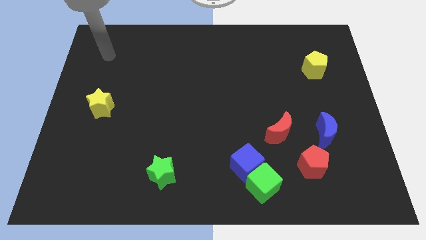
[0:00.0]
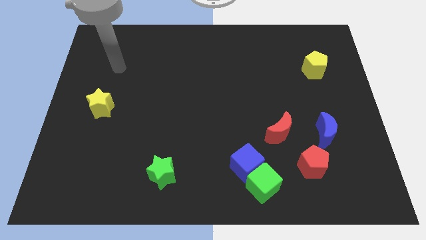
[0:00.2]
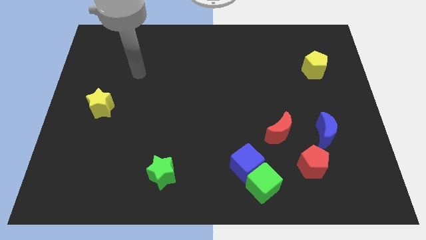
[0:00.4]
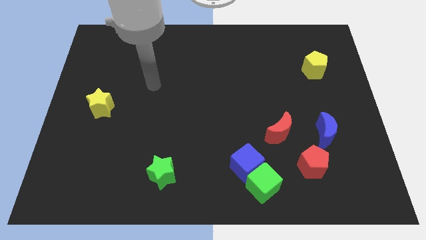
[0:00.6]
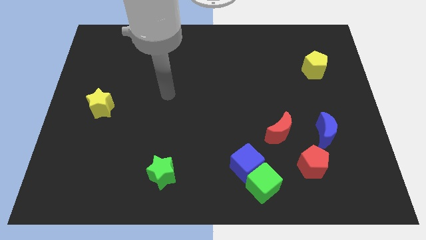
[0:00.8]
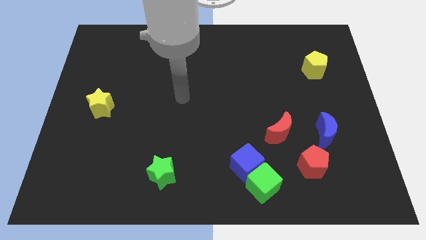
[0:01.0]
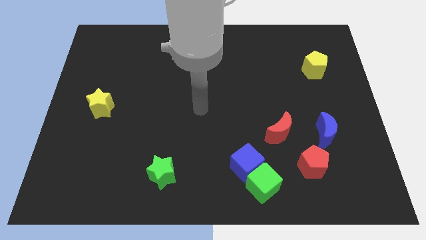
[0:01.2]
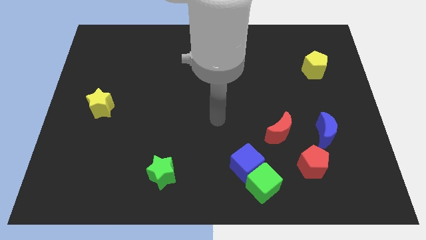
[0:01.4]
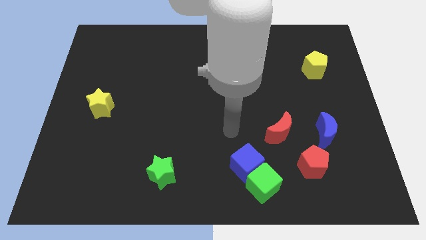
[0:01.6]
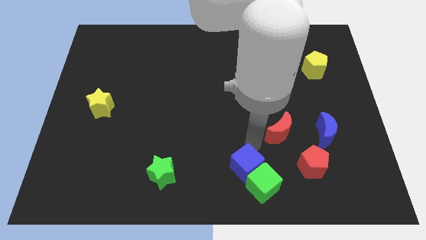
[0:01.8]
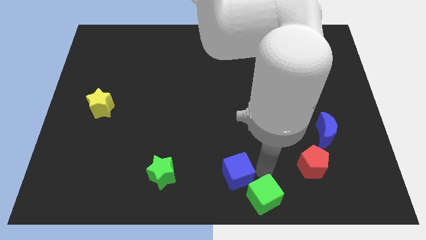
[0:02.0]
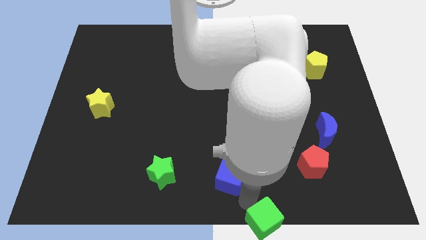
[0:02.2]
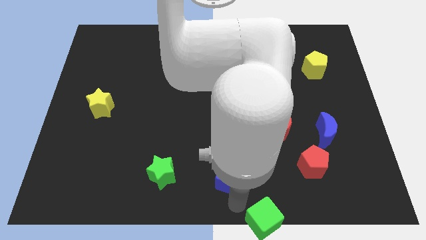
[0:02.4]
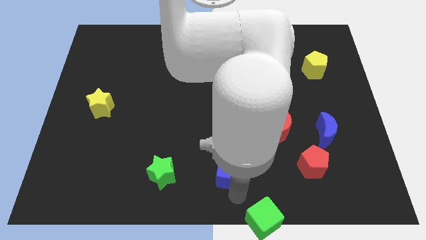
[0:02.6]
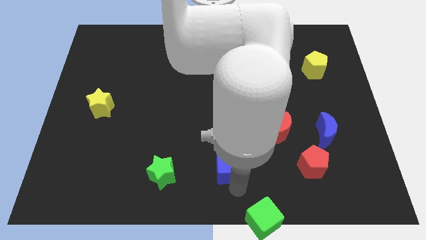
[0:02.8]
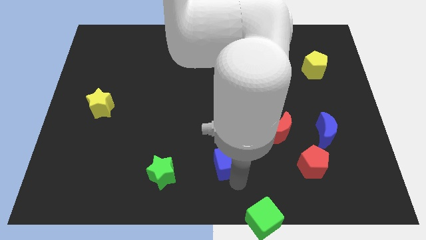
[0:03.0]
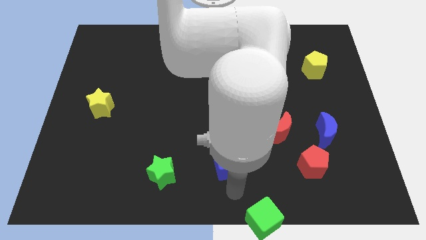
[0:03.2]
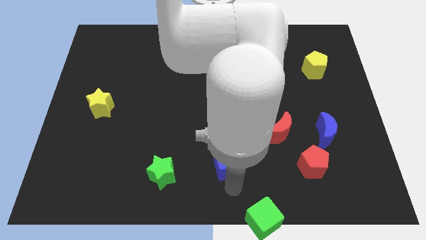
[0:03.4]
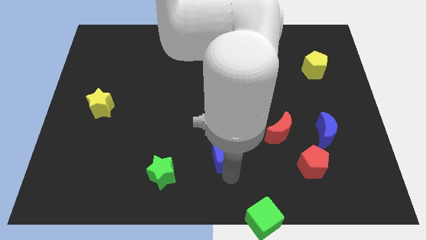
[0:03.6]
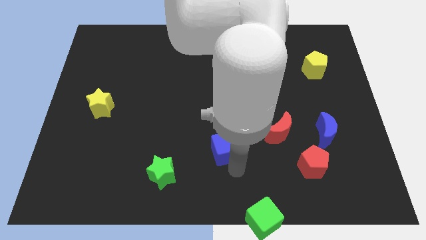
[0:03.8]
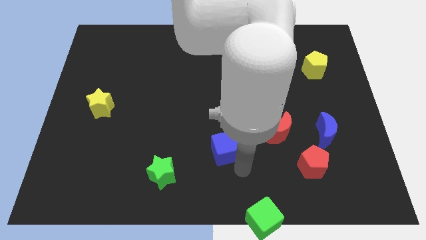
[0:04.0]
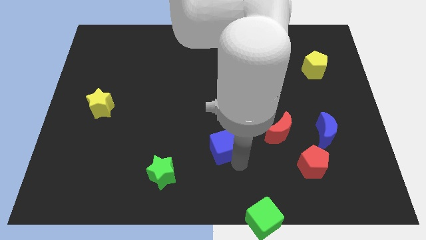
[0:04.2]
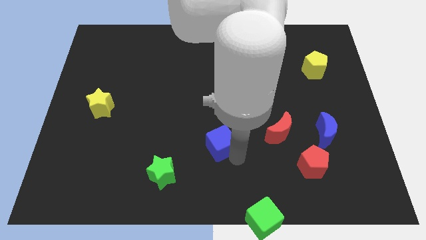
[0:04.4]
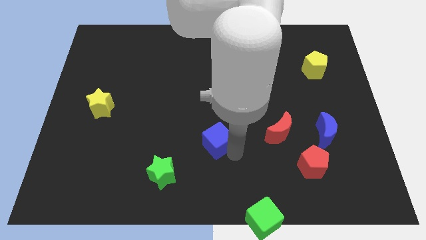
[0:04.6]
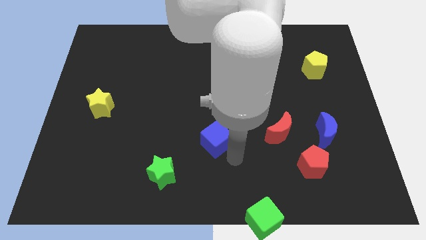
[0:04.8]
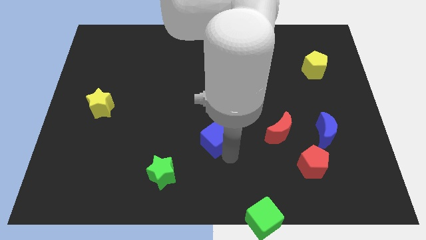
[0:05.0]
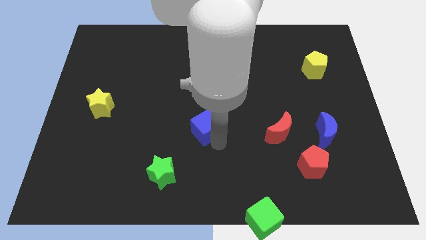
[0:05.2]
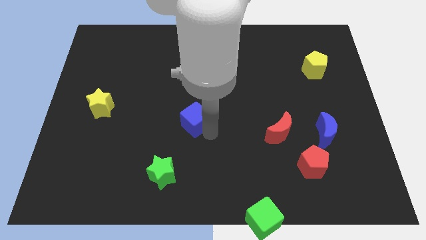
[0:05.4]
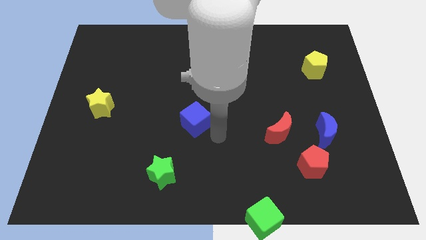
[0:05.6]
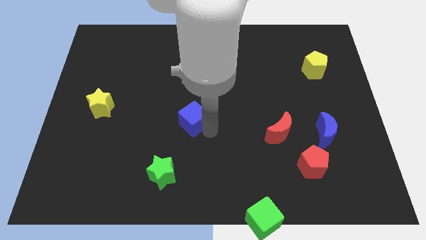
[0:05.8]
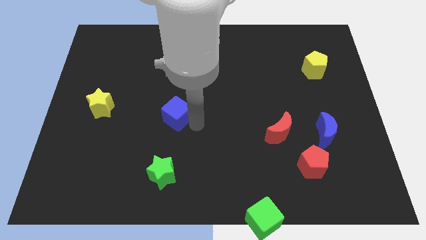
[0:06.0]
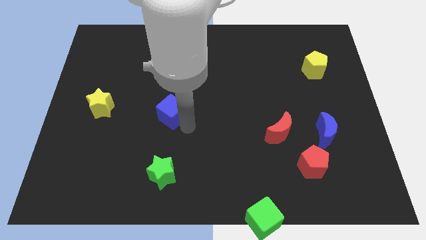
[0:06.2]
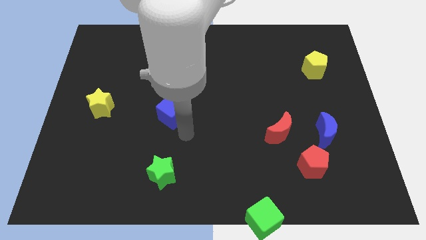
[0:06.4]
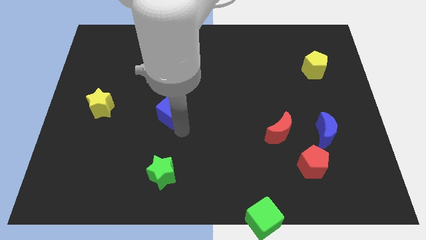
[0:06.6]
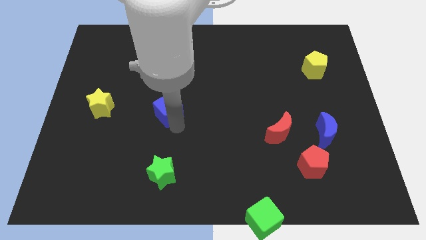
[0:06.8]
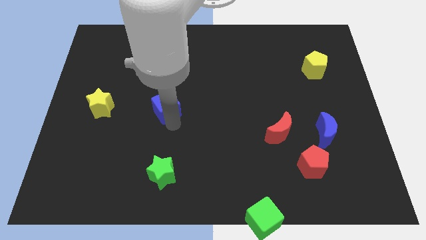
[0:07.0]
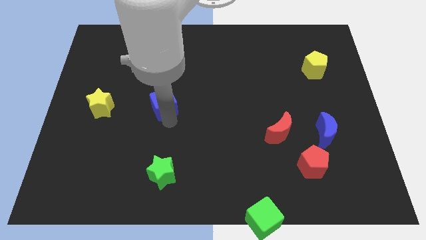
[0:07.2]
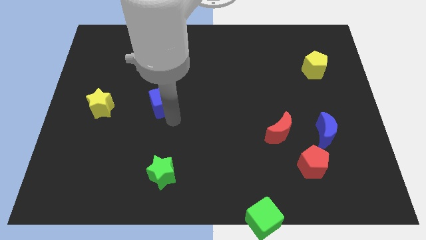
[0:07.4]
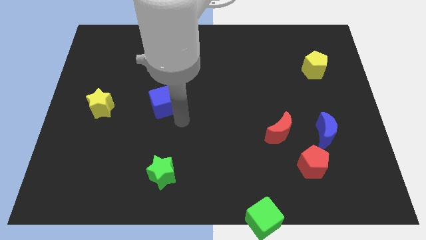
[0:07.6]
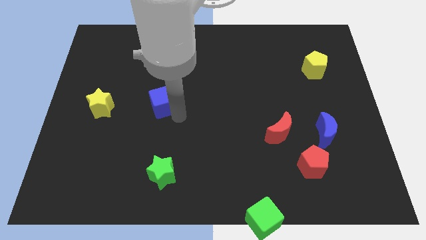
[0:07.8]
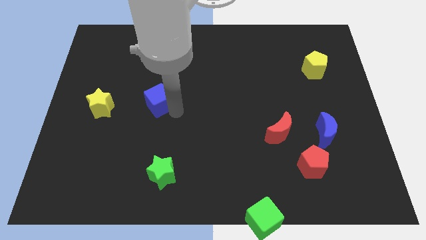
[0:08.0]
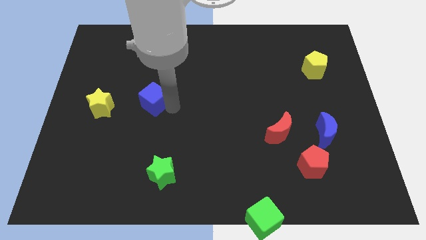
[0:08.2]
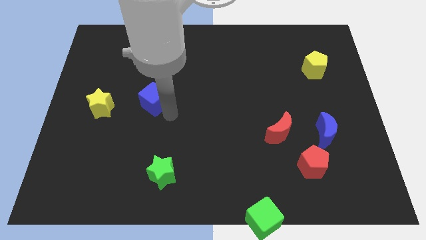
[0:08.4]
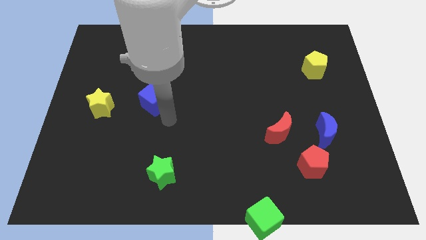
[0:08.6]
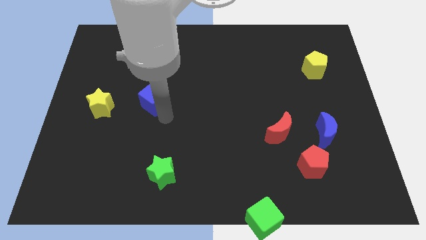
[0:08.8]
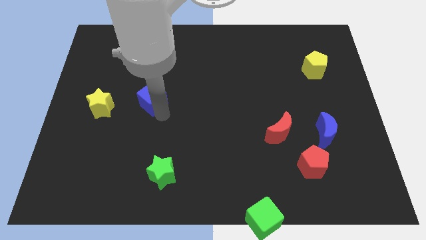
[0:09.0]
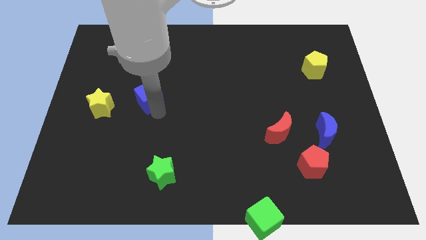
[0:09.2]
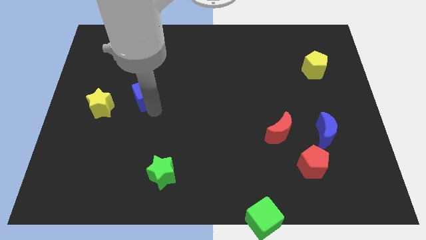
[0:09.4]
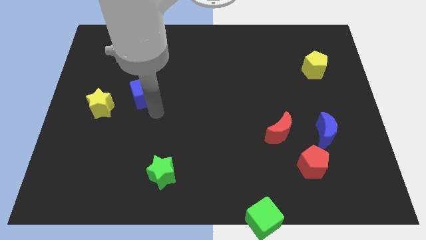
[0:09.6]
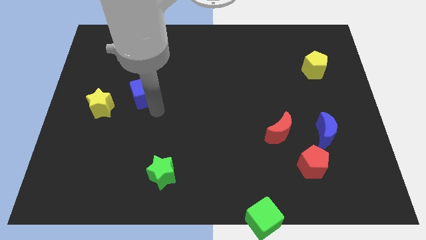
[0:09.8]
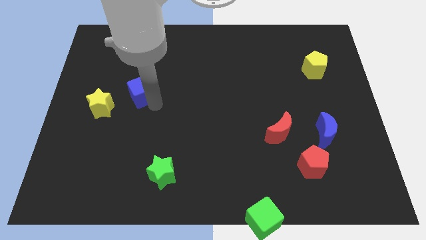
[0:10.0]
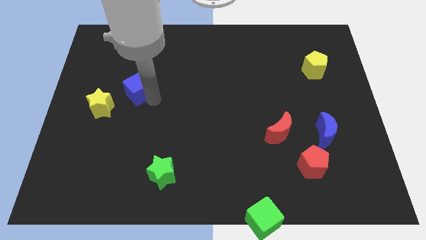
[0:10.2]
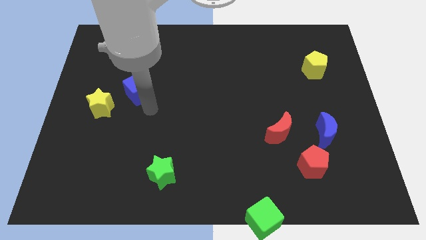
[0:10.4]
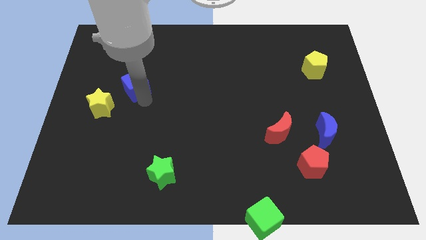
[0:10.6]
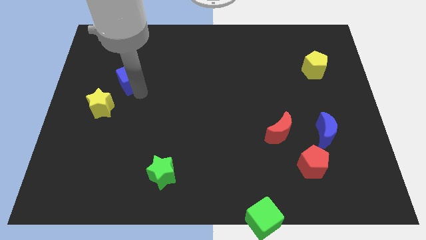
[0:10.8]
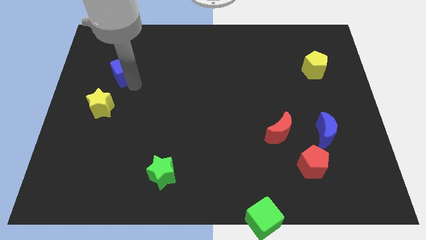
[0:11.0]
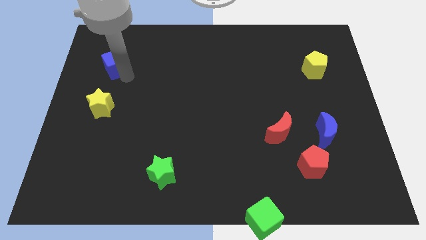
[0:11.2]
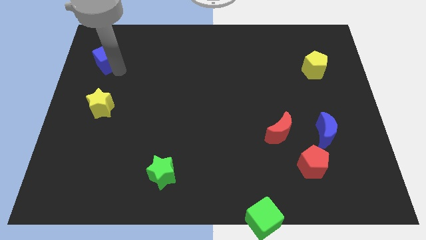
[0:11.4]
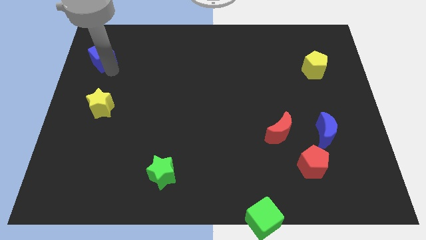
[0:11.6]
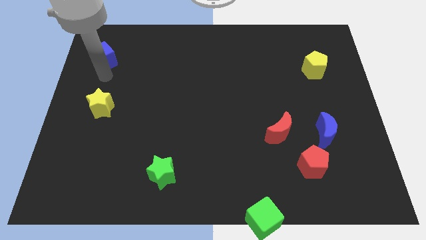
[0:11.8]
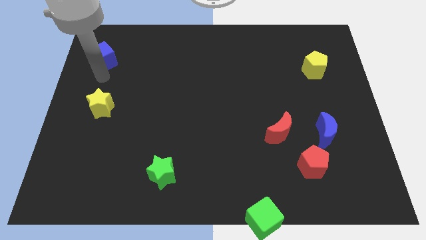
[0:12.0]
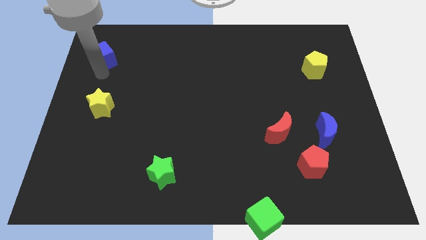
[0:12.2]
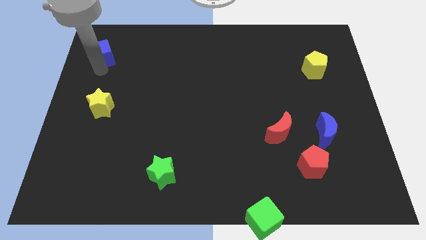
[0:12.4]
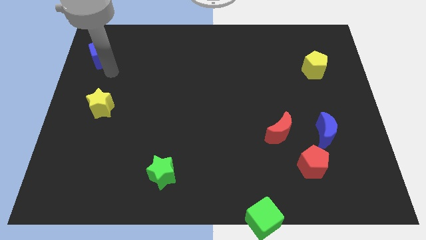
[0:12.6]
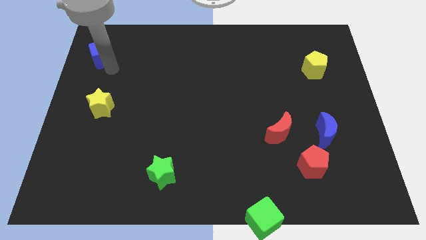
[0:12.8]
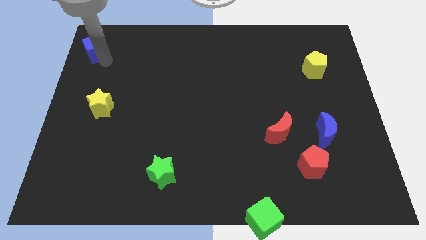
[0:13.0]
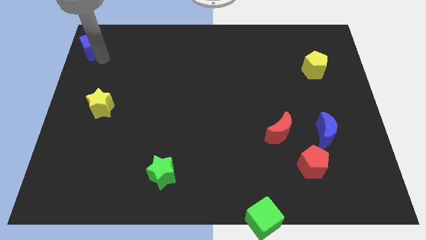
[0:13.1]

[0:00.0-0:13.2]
move the blue cube to the upper left corner
